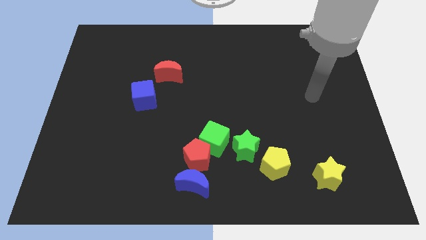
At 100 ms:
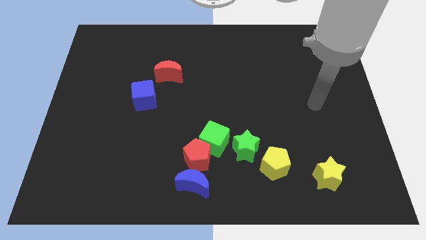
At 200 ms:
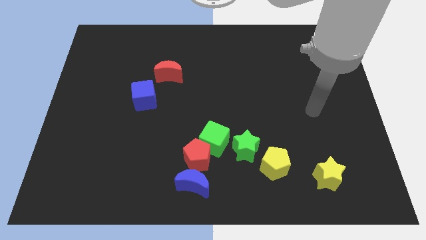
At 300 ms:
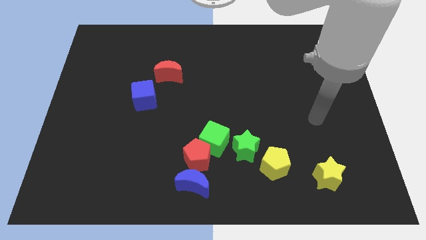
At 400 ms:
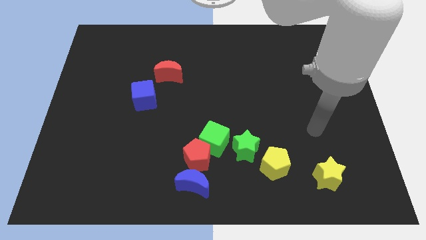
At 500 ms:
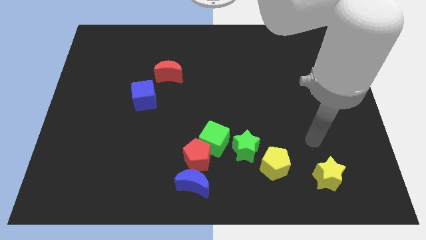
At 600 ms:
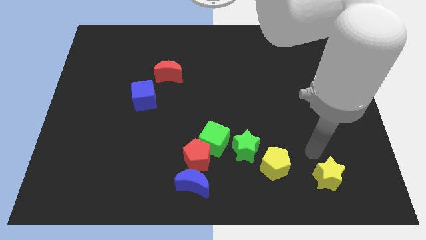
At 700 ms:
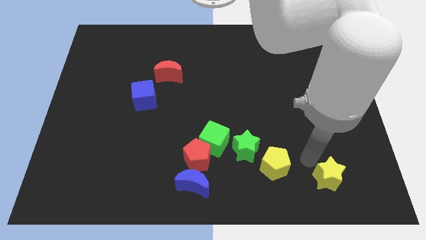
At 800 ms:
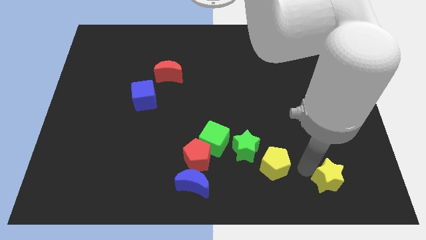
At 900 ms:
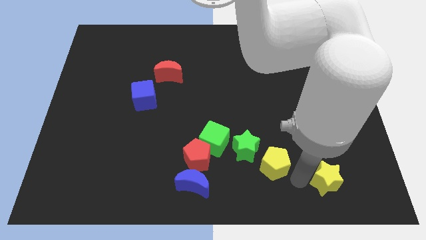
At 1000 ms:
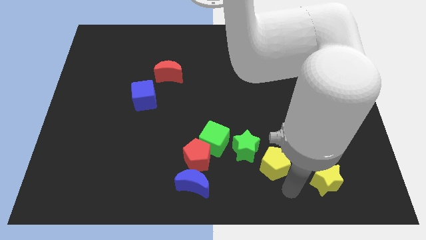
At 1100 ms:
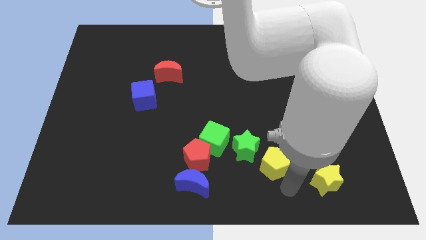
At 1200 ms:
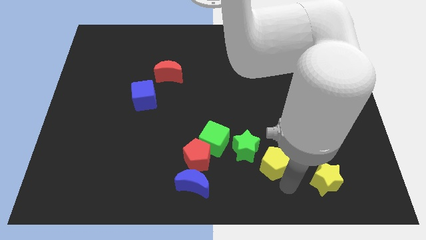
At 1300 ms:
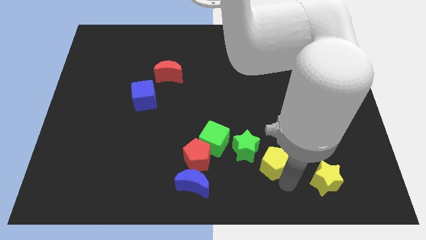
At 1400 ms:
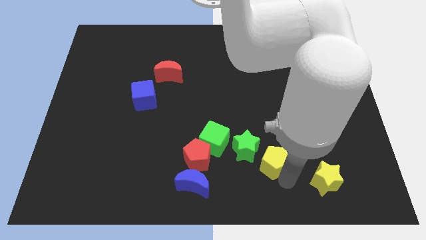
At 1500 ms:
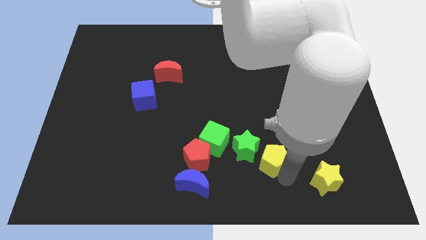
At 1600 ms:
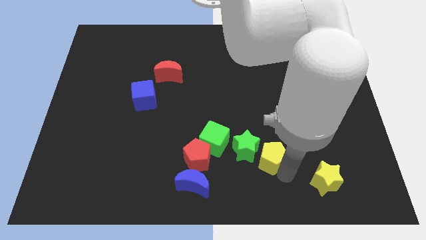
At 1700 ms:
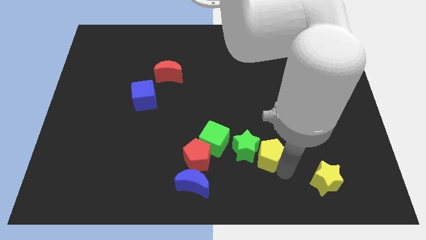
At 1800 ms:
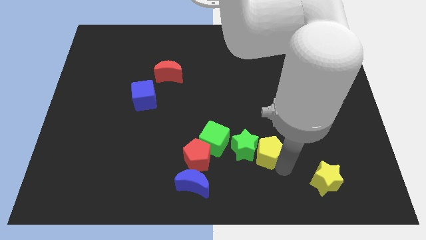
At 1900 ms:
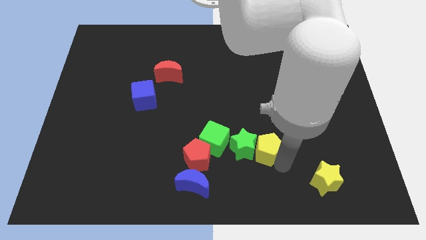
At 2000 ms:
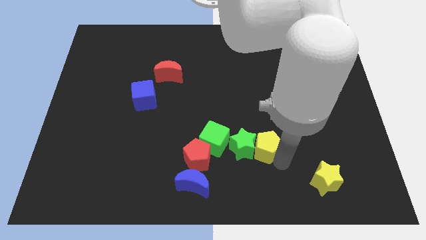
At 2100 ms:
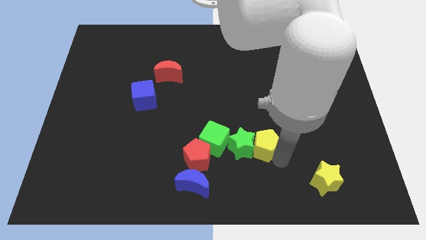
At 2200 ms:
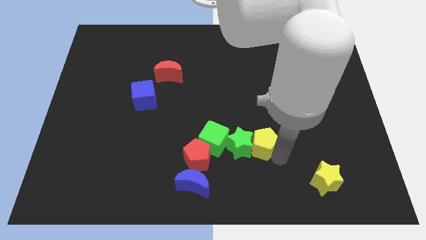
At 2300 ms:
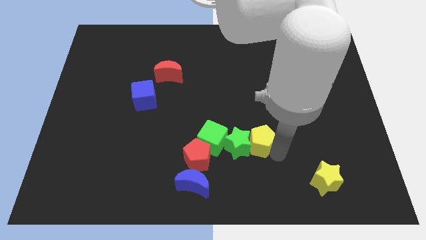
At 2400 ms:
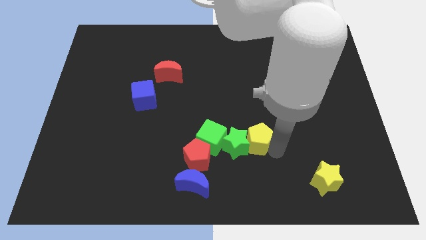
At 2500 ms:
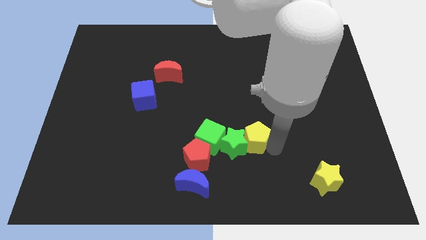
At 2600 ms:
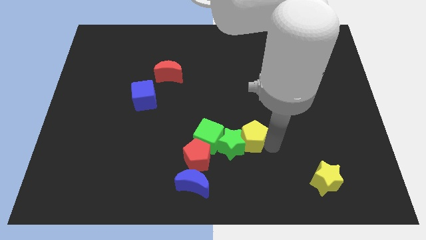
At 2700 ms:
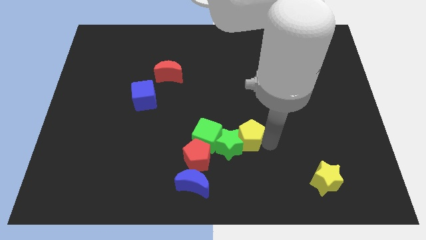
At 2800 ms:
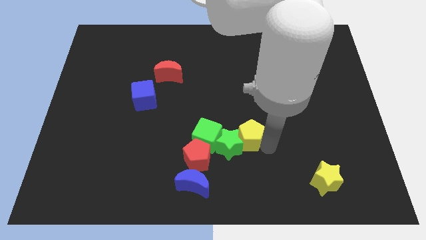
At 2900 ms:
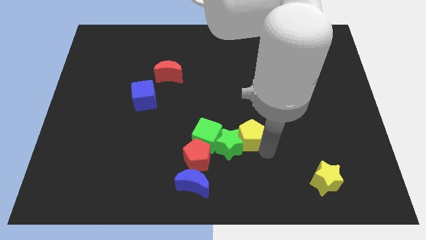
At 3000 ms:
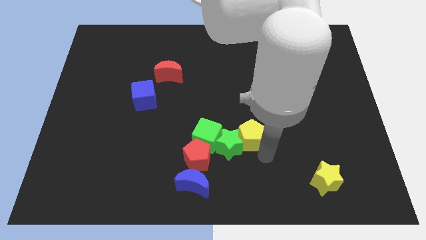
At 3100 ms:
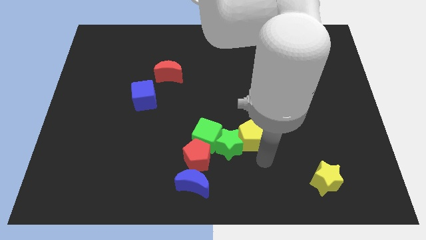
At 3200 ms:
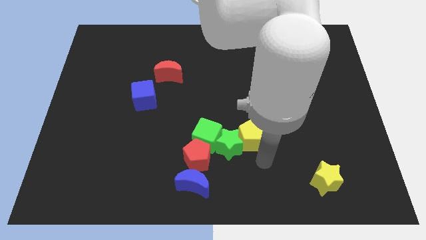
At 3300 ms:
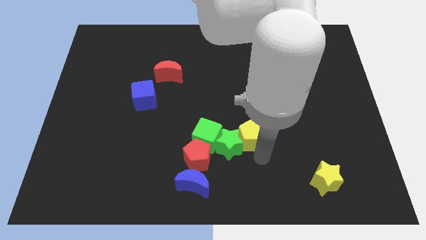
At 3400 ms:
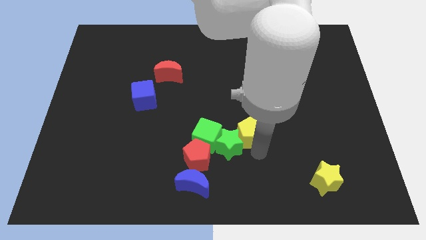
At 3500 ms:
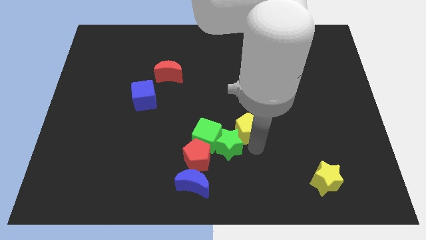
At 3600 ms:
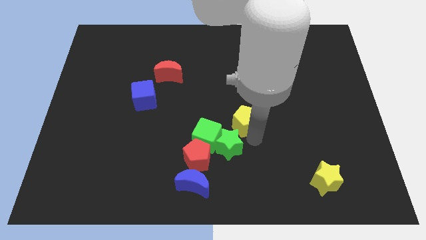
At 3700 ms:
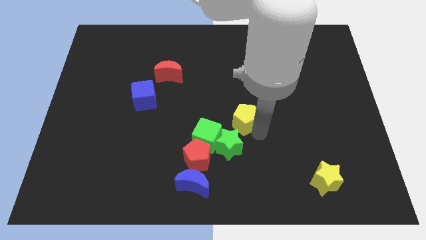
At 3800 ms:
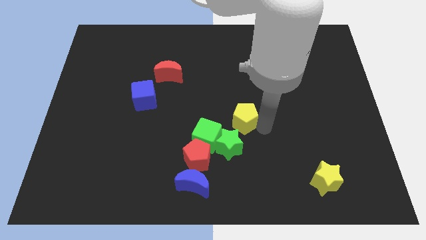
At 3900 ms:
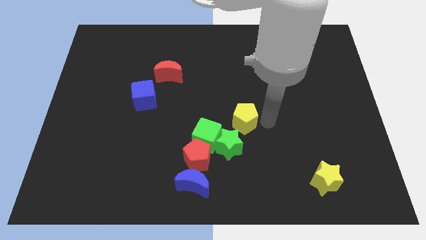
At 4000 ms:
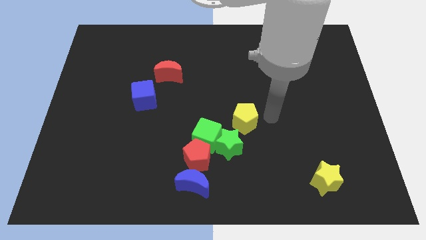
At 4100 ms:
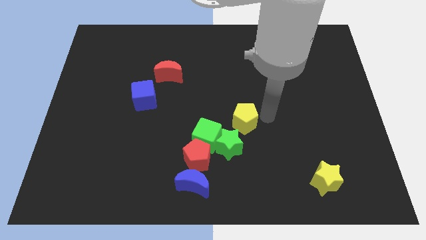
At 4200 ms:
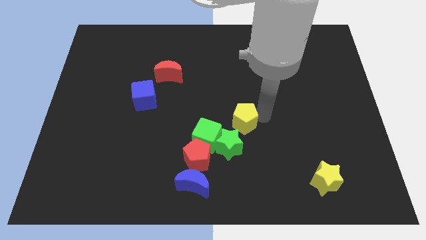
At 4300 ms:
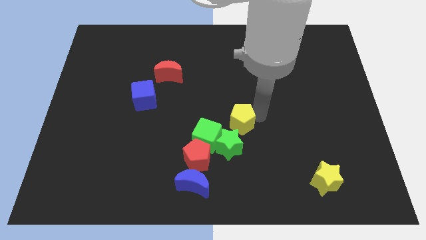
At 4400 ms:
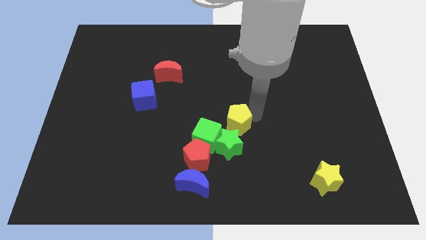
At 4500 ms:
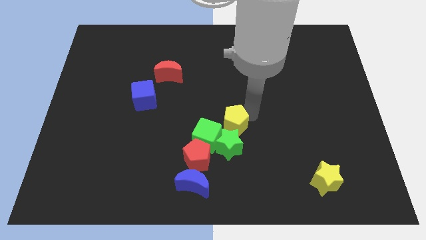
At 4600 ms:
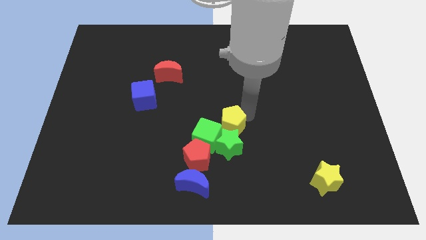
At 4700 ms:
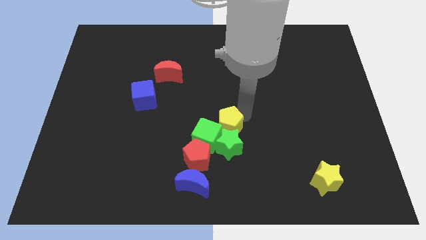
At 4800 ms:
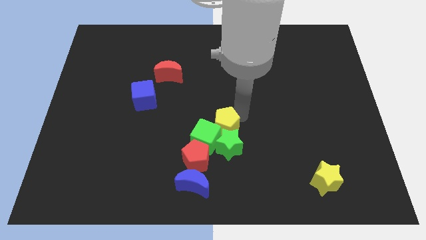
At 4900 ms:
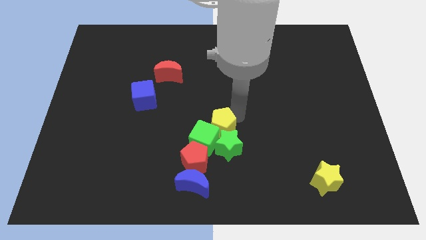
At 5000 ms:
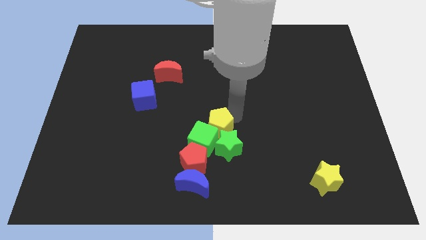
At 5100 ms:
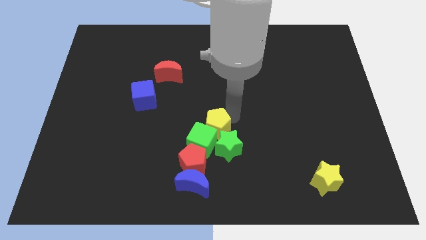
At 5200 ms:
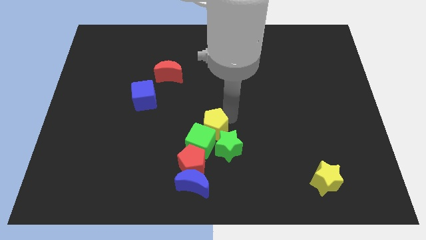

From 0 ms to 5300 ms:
slide the yellow pentagon to the top of the blue moon

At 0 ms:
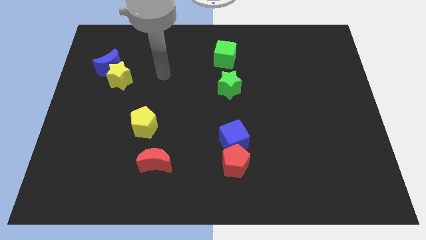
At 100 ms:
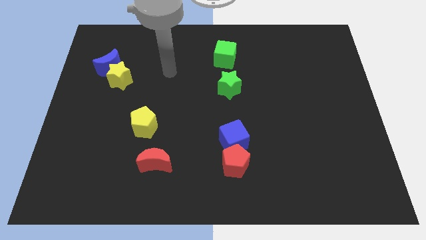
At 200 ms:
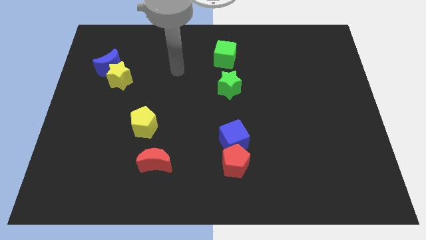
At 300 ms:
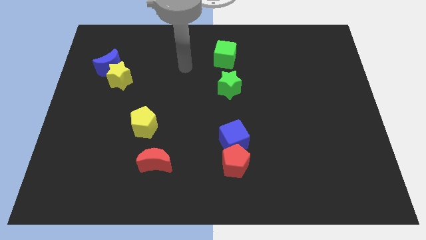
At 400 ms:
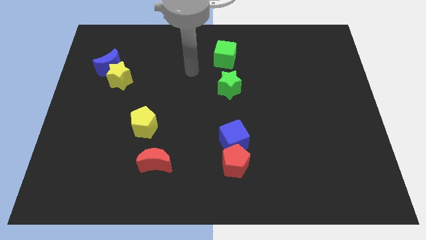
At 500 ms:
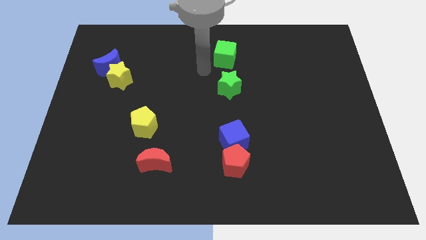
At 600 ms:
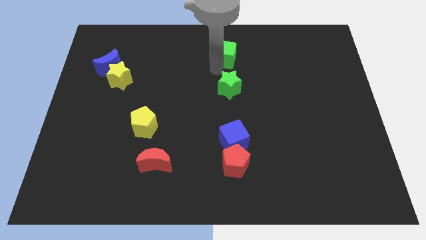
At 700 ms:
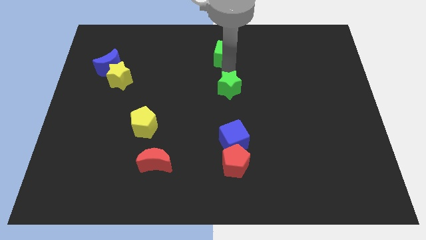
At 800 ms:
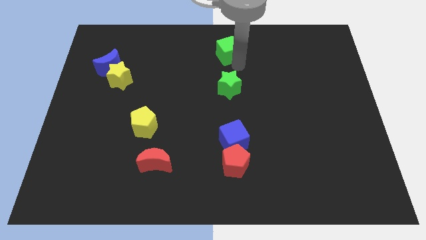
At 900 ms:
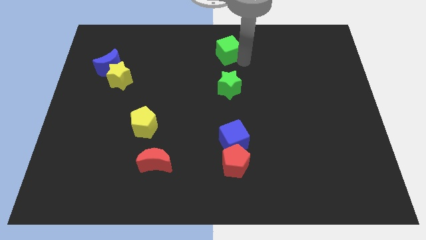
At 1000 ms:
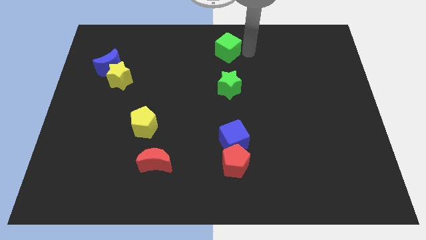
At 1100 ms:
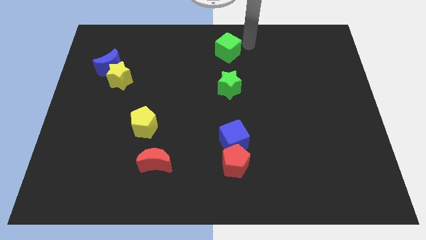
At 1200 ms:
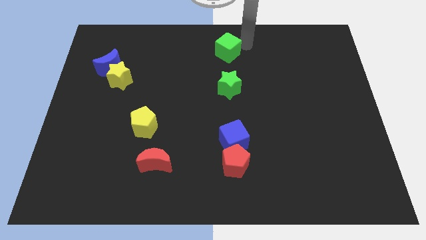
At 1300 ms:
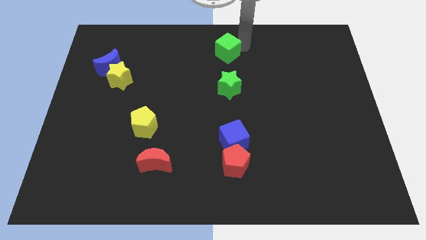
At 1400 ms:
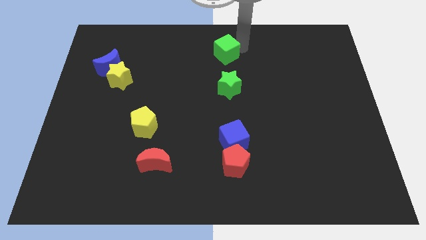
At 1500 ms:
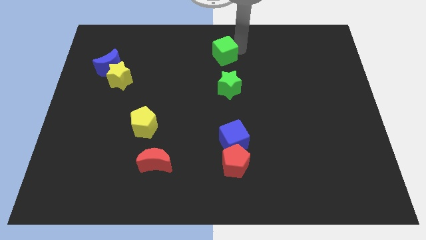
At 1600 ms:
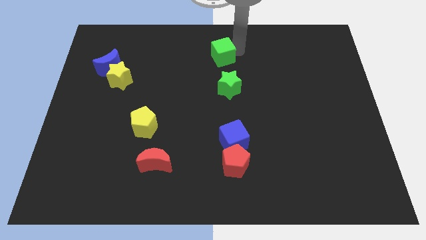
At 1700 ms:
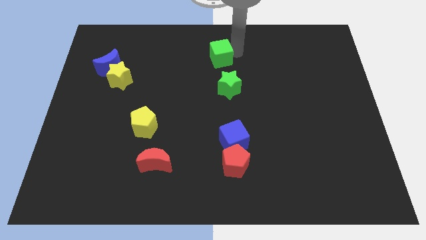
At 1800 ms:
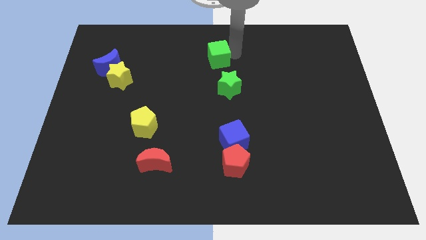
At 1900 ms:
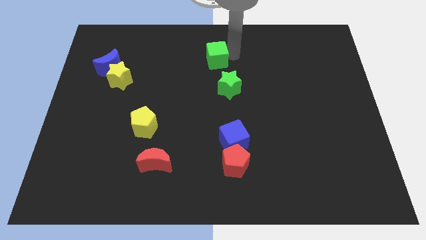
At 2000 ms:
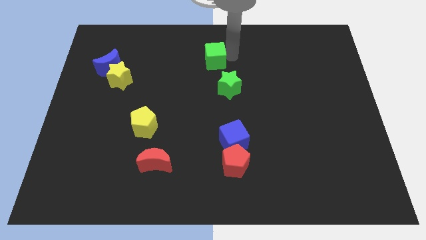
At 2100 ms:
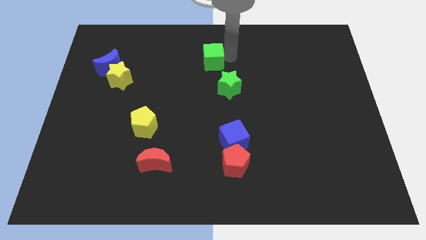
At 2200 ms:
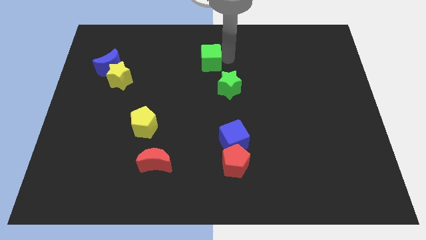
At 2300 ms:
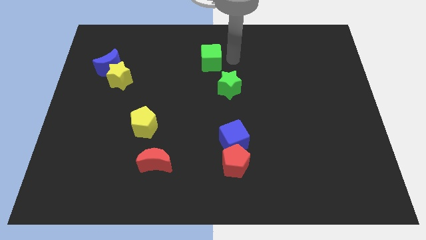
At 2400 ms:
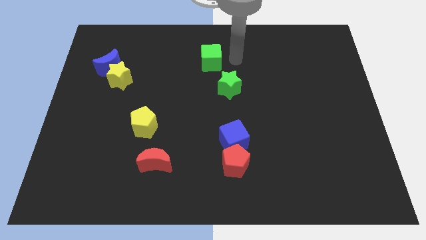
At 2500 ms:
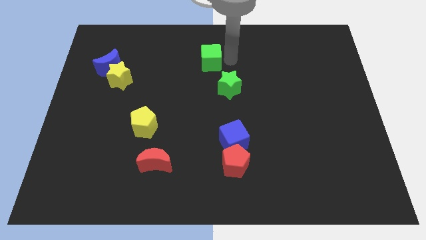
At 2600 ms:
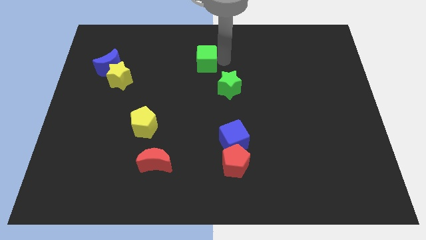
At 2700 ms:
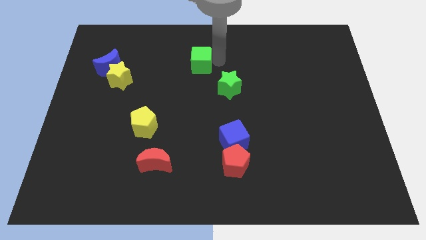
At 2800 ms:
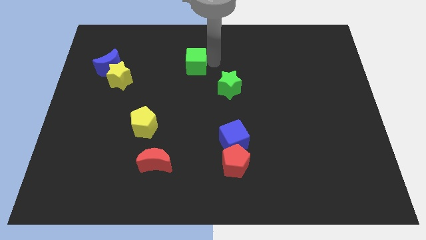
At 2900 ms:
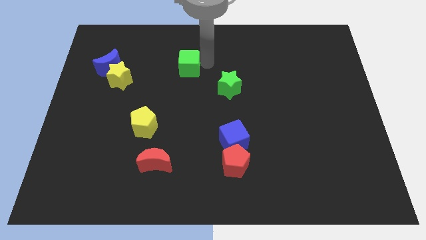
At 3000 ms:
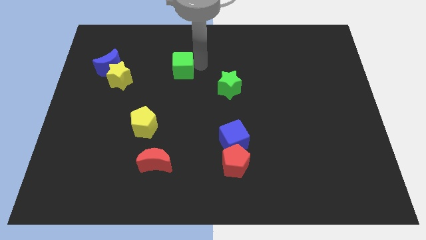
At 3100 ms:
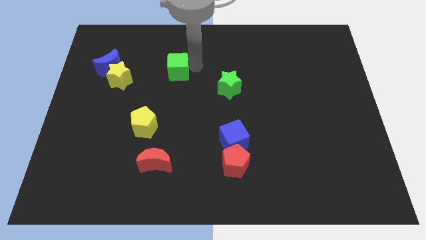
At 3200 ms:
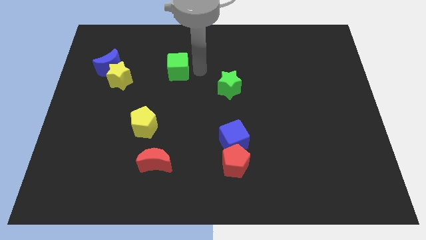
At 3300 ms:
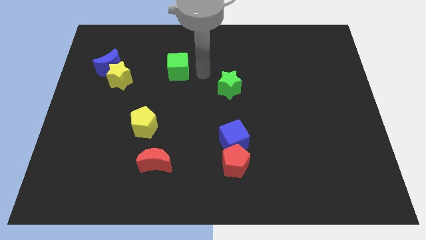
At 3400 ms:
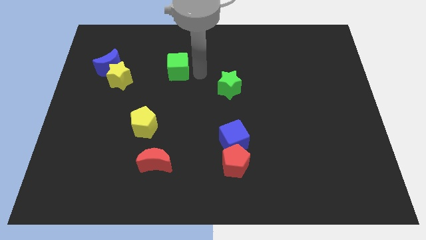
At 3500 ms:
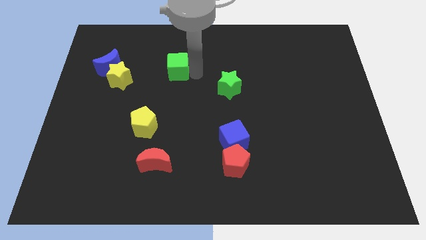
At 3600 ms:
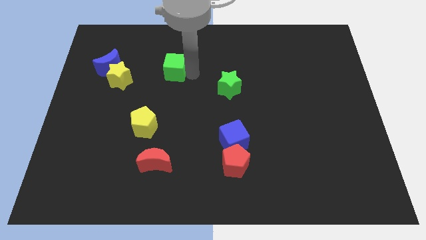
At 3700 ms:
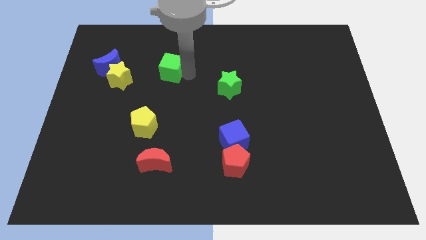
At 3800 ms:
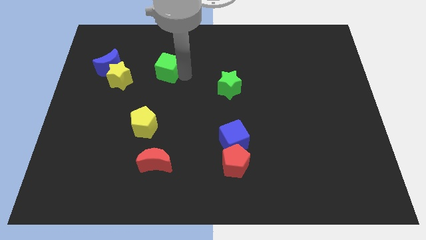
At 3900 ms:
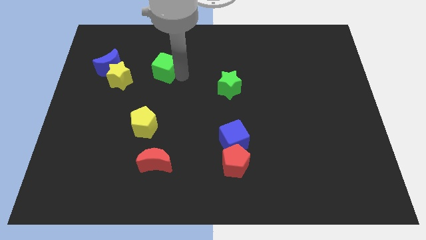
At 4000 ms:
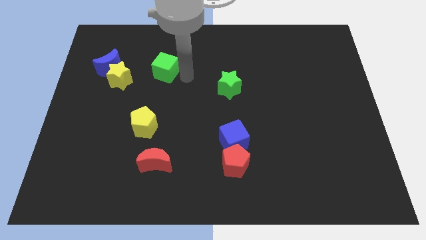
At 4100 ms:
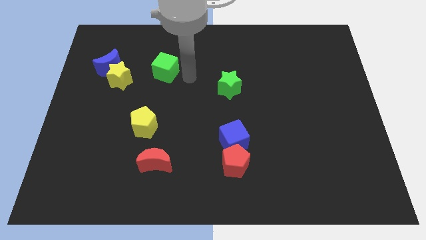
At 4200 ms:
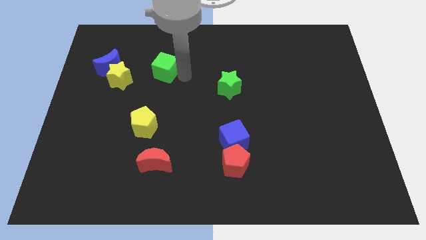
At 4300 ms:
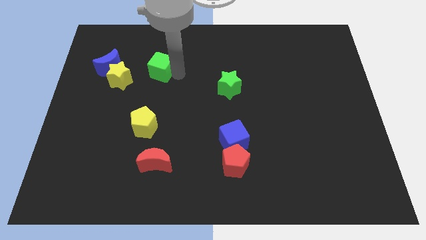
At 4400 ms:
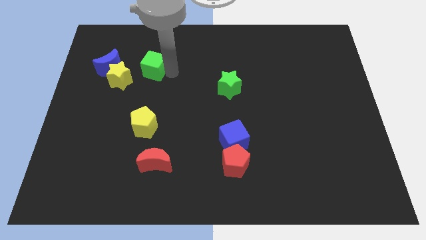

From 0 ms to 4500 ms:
put the green cube to the top right of the yellow star
